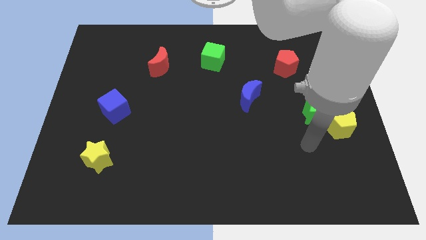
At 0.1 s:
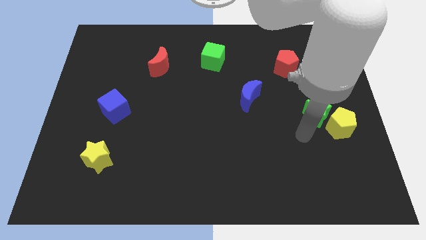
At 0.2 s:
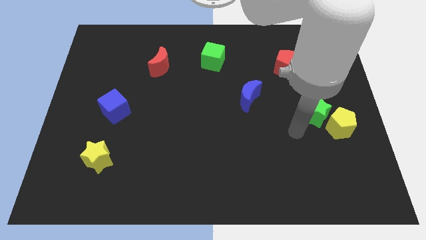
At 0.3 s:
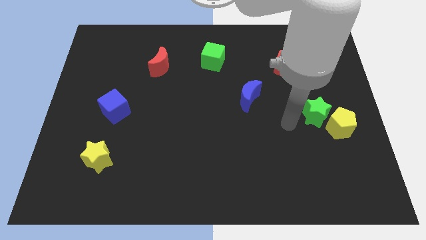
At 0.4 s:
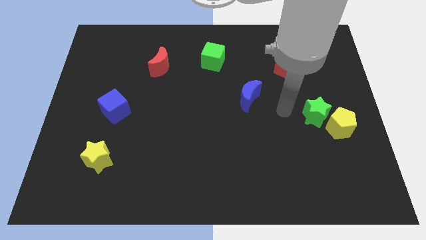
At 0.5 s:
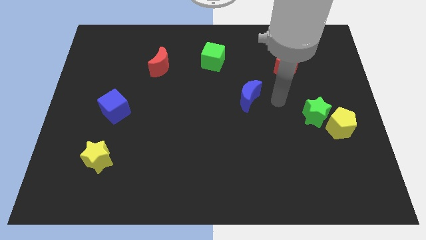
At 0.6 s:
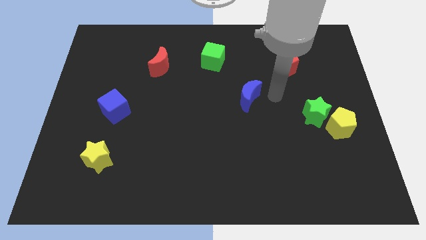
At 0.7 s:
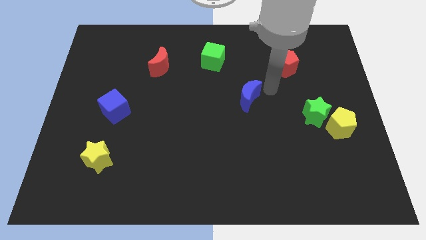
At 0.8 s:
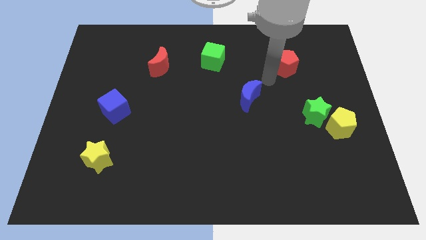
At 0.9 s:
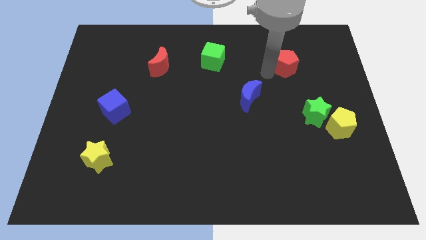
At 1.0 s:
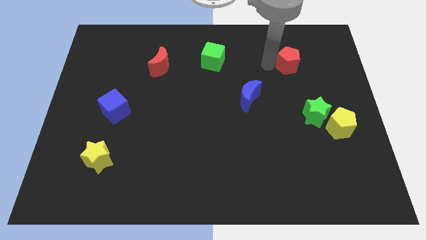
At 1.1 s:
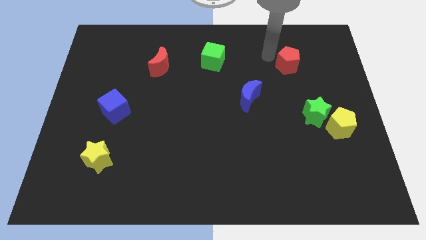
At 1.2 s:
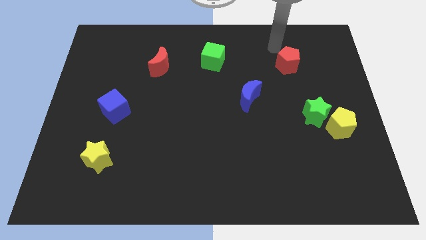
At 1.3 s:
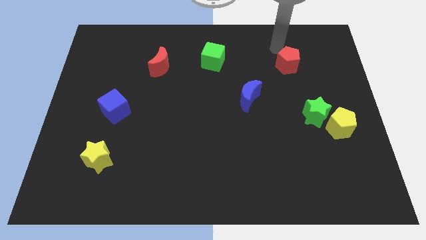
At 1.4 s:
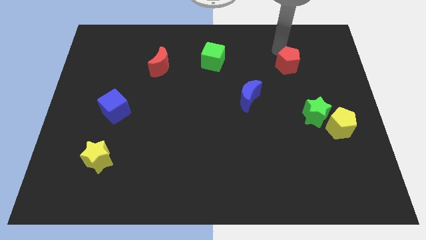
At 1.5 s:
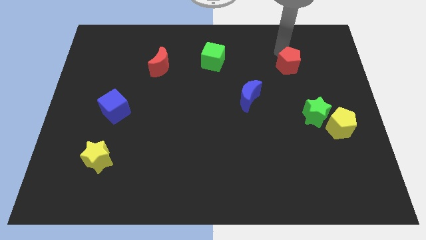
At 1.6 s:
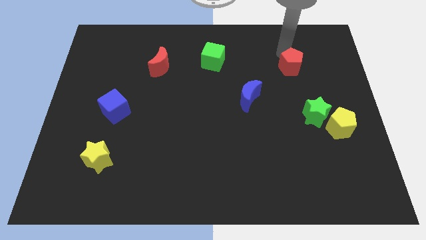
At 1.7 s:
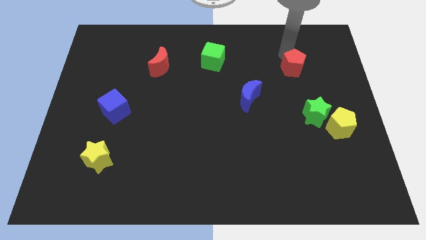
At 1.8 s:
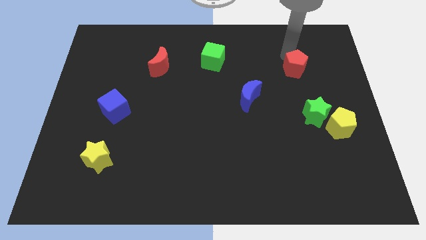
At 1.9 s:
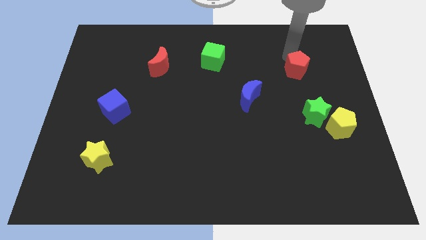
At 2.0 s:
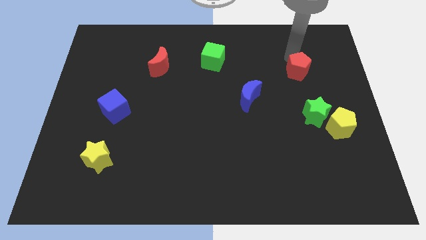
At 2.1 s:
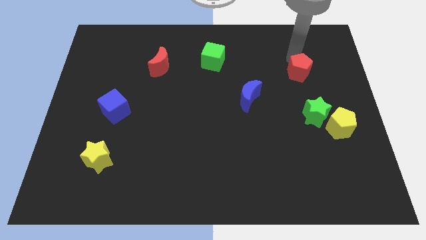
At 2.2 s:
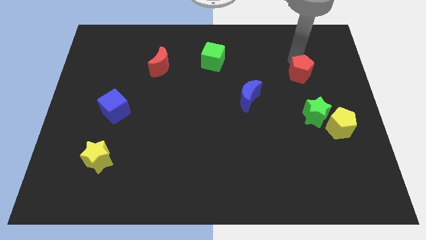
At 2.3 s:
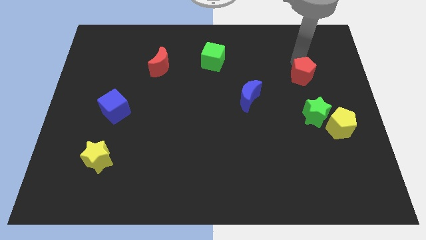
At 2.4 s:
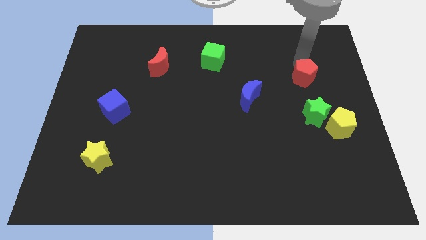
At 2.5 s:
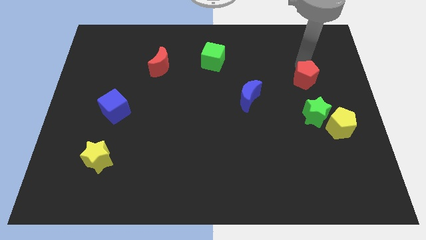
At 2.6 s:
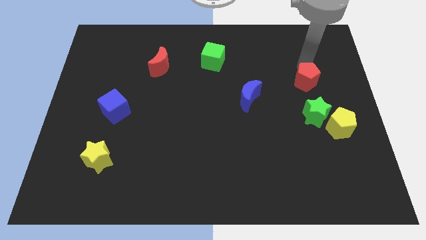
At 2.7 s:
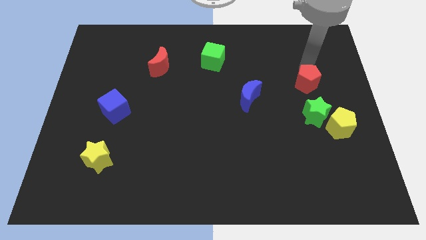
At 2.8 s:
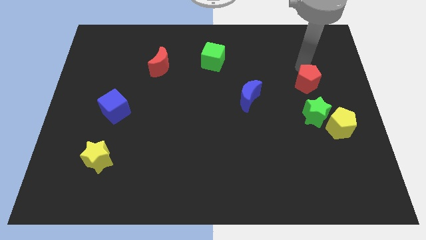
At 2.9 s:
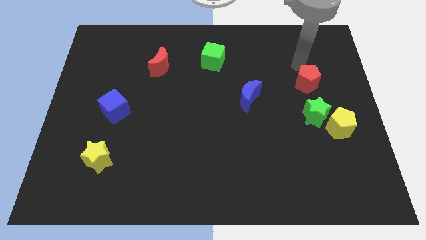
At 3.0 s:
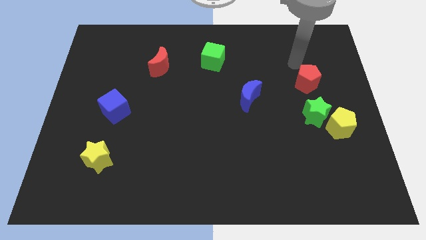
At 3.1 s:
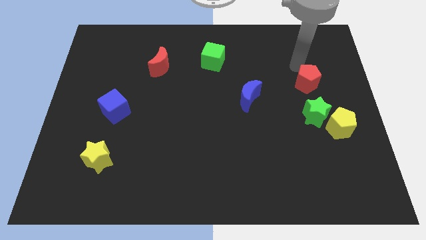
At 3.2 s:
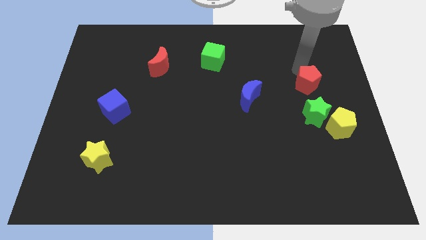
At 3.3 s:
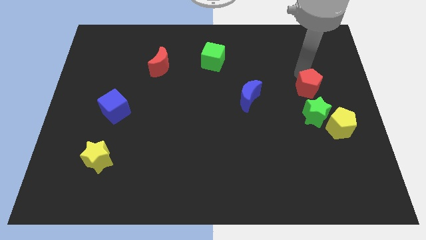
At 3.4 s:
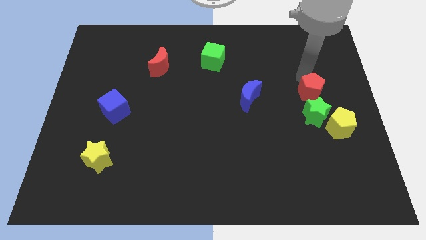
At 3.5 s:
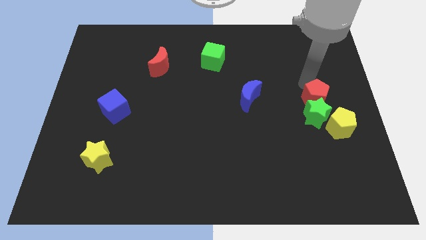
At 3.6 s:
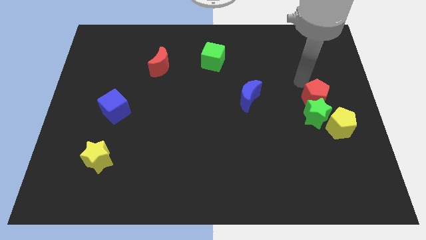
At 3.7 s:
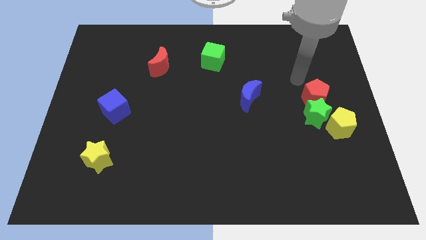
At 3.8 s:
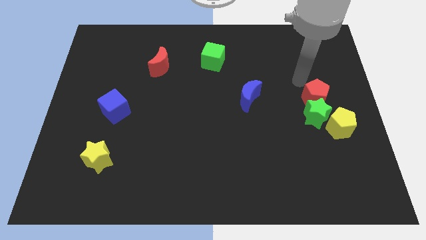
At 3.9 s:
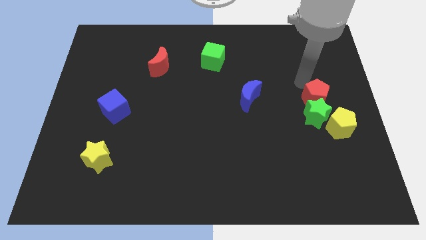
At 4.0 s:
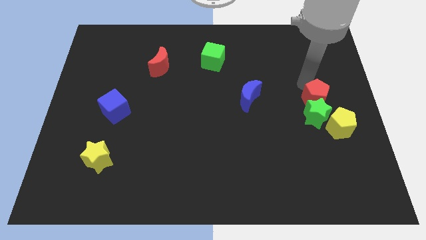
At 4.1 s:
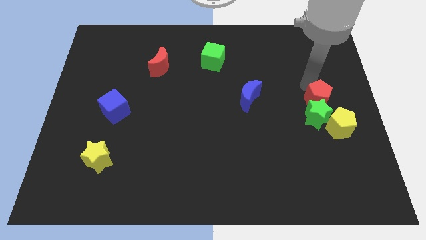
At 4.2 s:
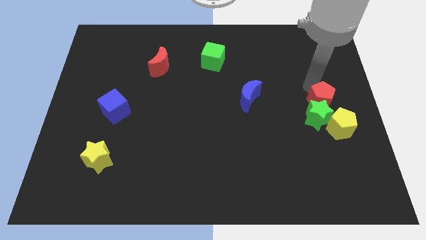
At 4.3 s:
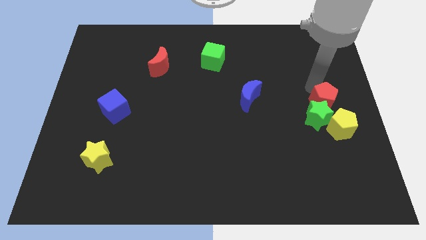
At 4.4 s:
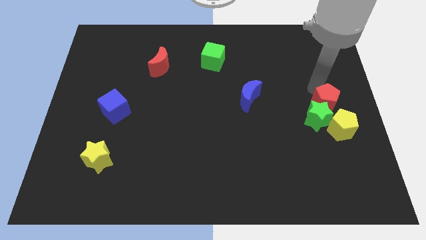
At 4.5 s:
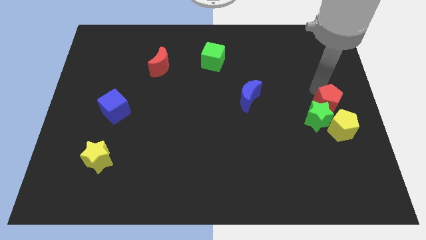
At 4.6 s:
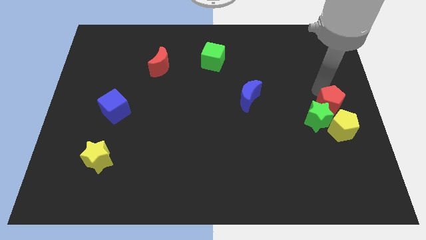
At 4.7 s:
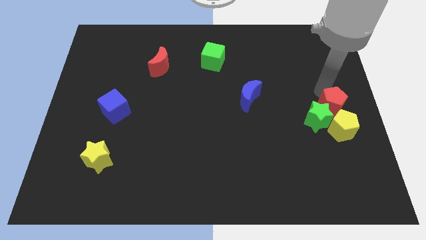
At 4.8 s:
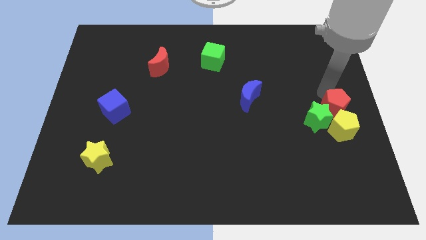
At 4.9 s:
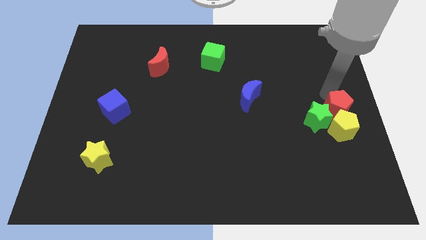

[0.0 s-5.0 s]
put the red pentagon towards the yellow pentagon

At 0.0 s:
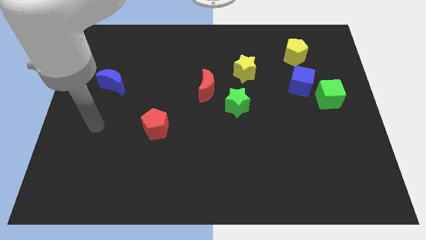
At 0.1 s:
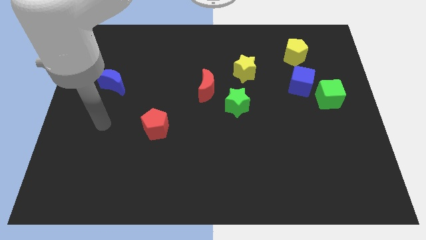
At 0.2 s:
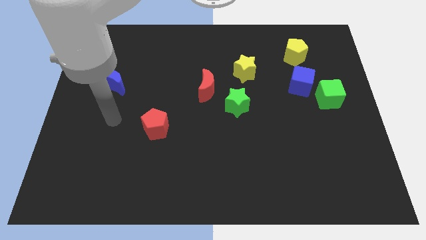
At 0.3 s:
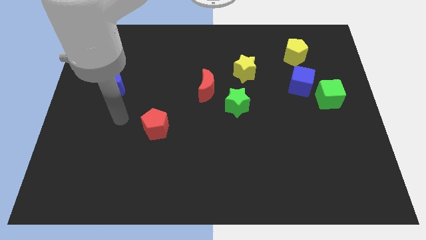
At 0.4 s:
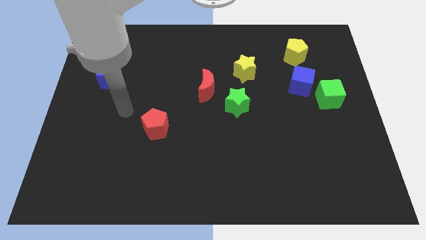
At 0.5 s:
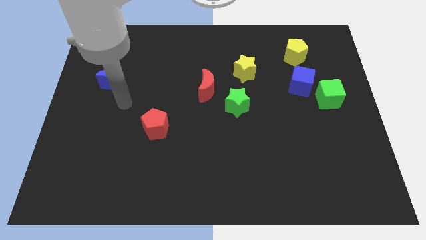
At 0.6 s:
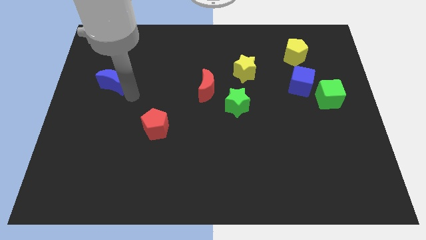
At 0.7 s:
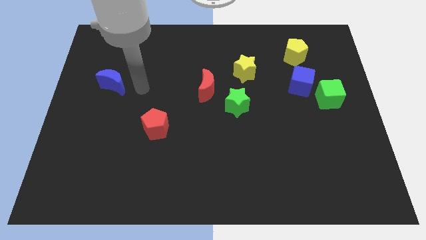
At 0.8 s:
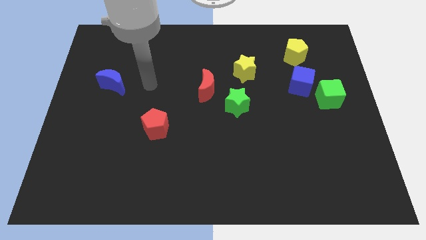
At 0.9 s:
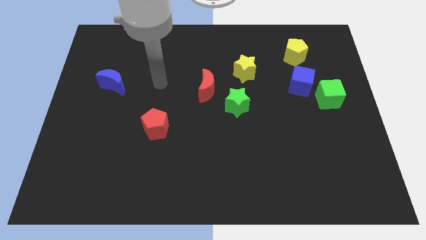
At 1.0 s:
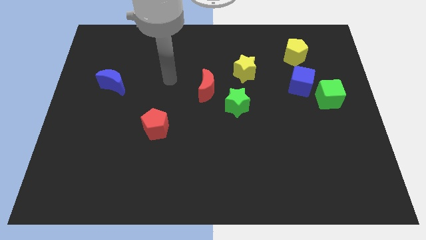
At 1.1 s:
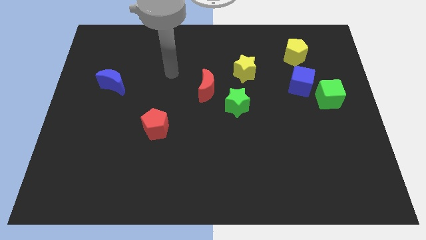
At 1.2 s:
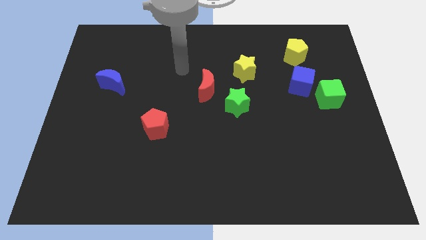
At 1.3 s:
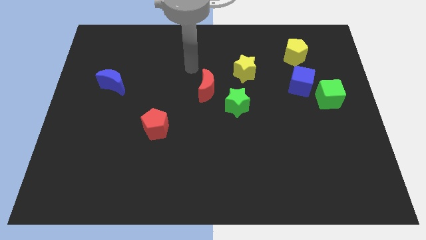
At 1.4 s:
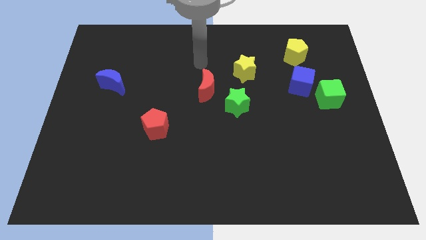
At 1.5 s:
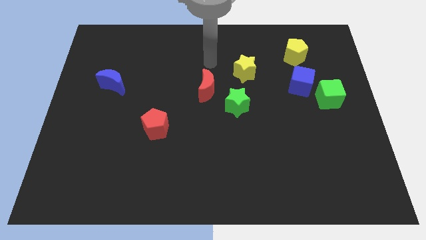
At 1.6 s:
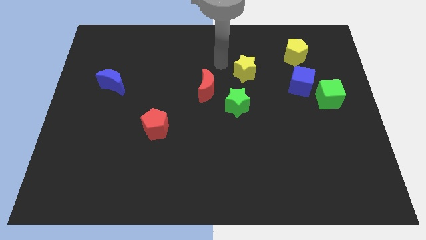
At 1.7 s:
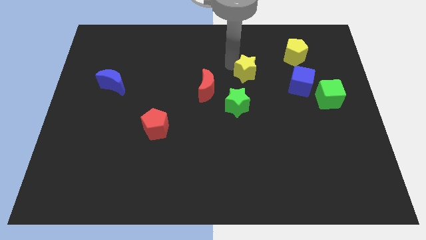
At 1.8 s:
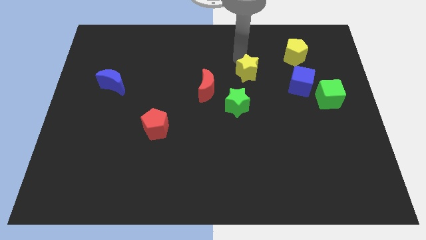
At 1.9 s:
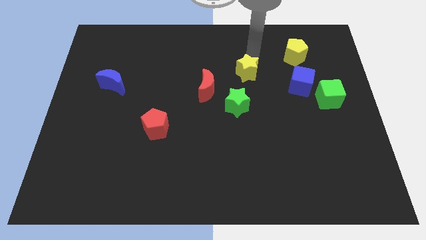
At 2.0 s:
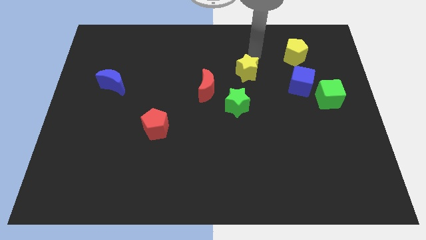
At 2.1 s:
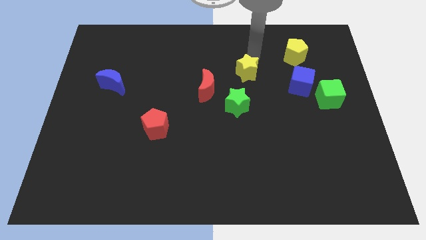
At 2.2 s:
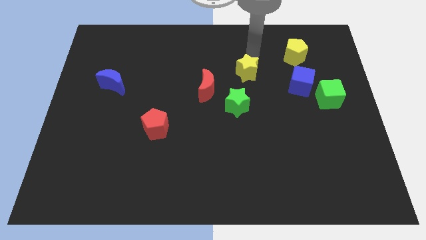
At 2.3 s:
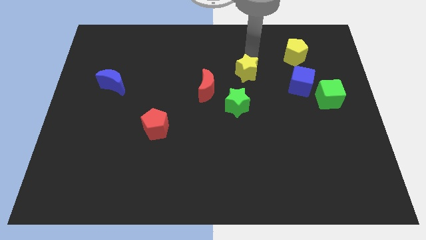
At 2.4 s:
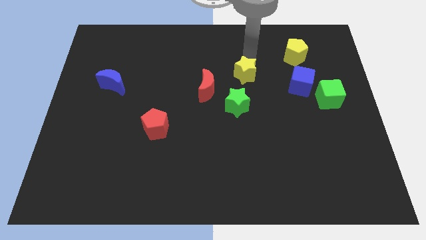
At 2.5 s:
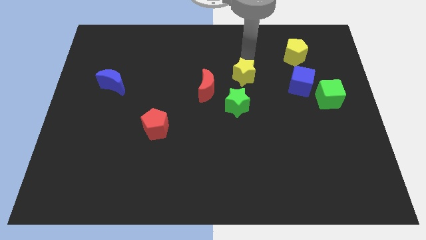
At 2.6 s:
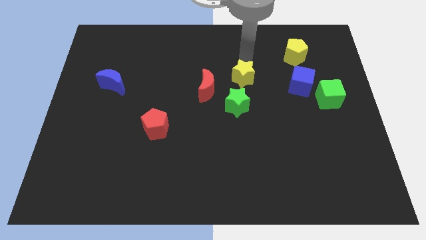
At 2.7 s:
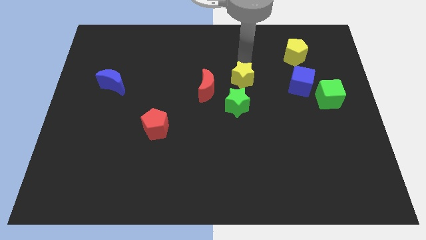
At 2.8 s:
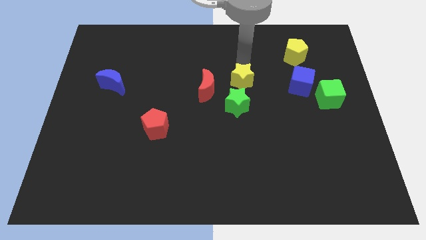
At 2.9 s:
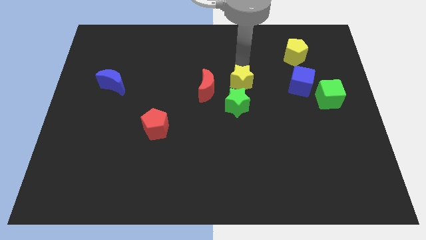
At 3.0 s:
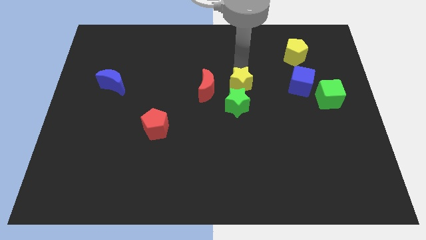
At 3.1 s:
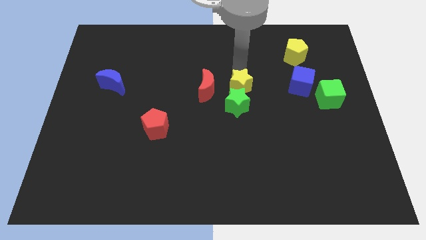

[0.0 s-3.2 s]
slide the yellow star towards the green star
